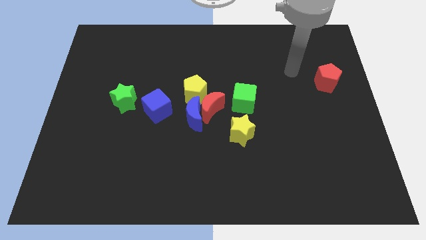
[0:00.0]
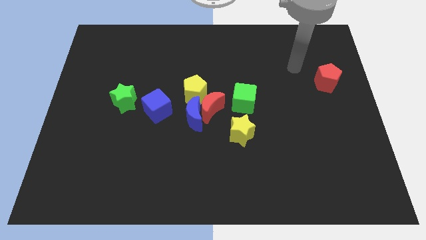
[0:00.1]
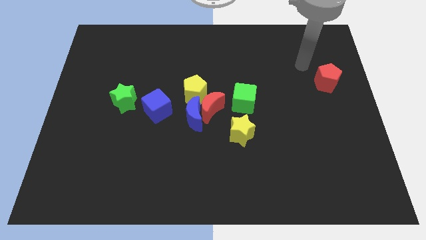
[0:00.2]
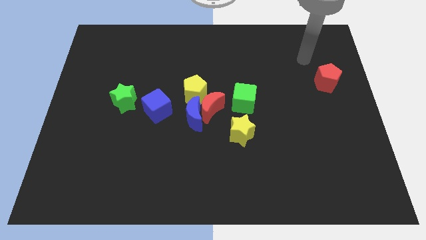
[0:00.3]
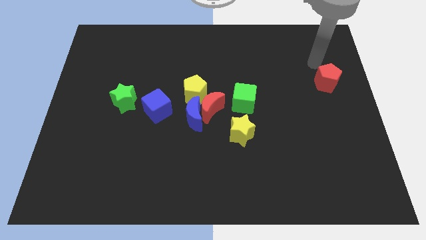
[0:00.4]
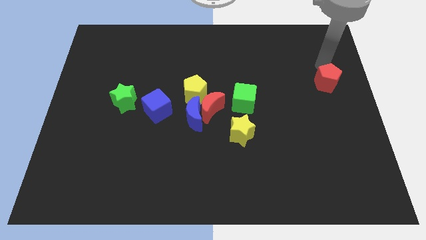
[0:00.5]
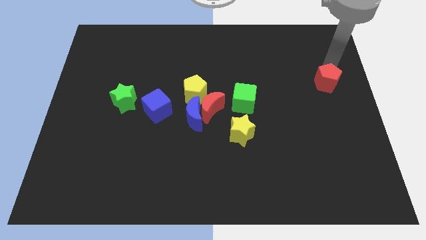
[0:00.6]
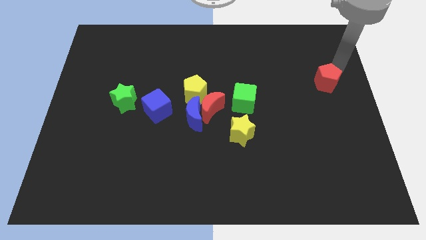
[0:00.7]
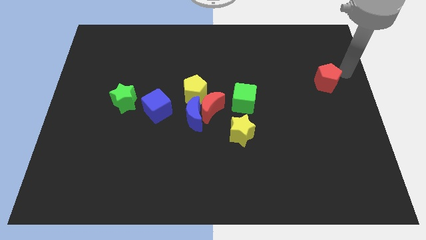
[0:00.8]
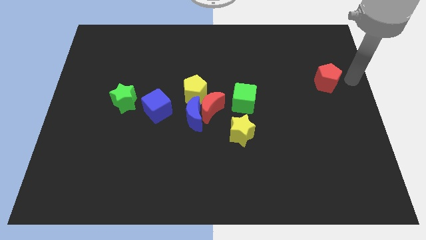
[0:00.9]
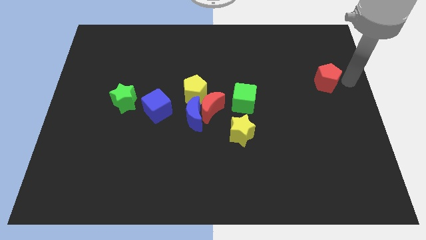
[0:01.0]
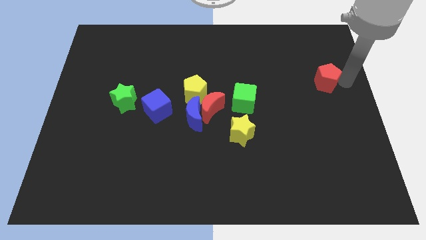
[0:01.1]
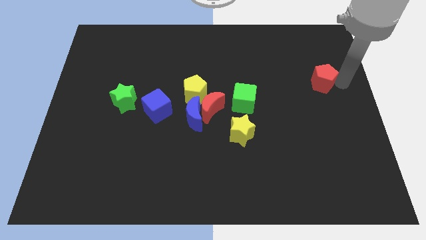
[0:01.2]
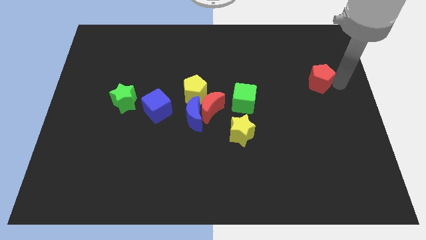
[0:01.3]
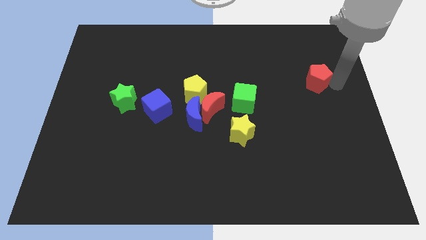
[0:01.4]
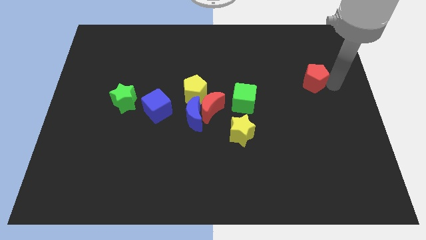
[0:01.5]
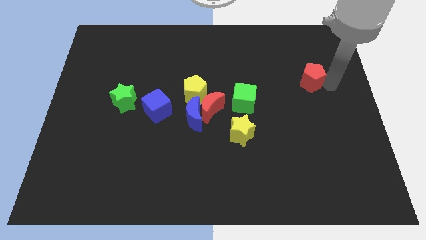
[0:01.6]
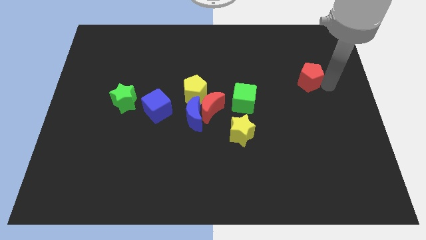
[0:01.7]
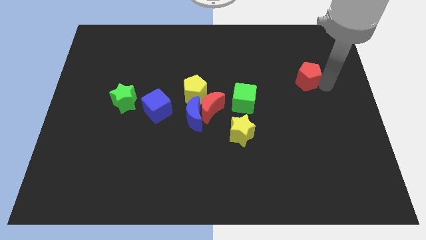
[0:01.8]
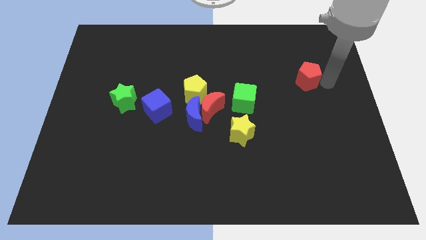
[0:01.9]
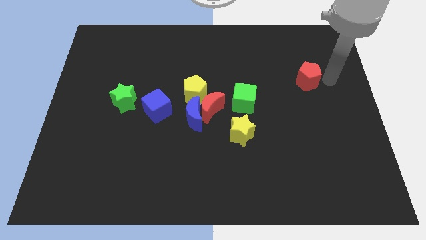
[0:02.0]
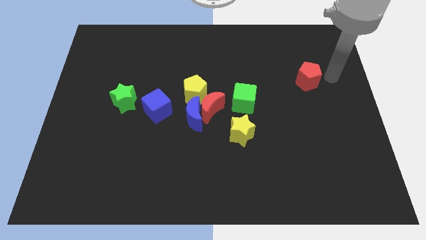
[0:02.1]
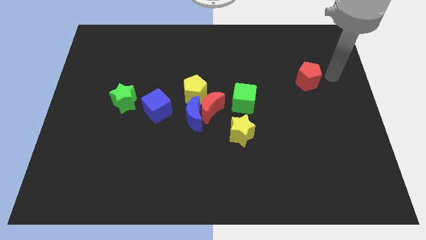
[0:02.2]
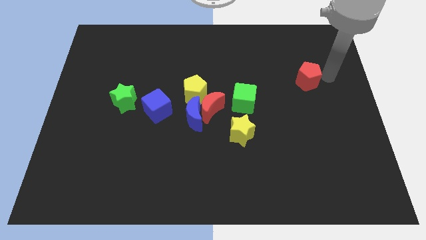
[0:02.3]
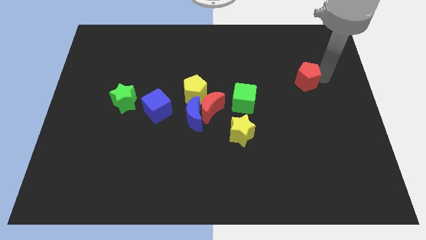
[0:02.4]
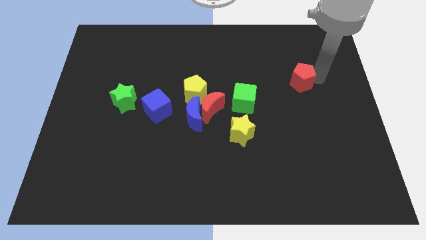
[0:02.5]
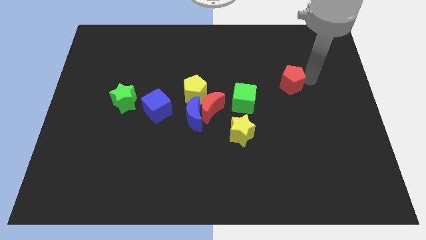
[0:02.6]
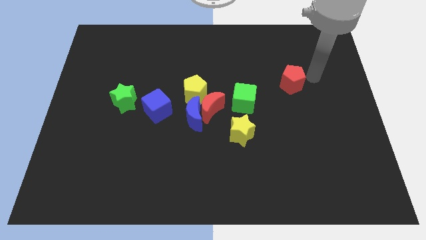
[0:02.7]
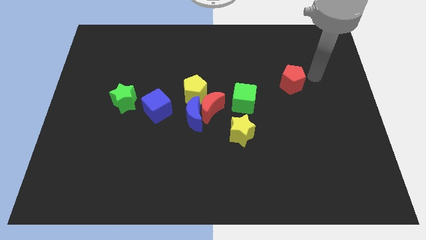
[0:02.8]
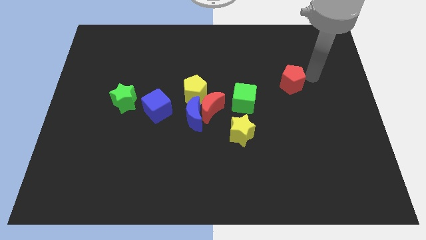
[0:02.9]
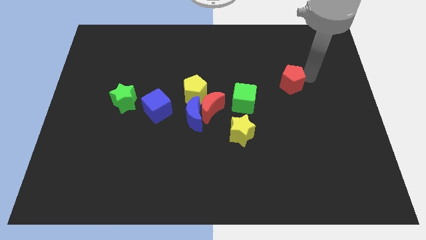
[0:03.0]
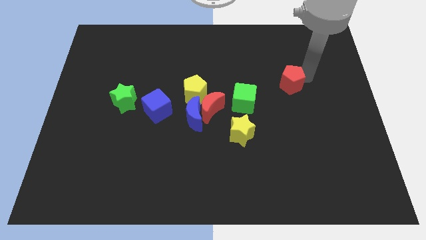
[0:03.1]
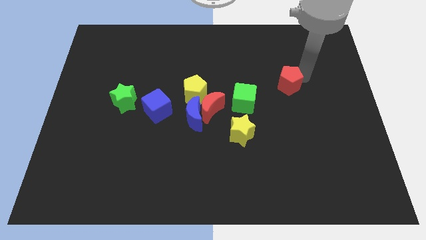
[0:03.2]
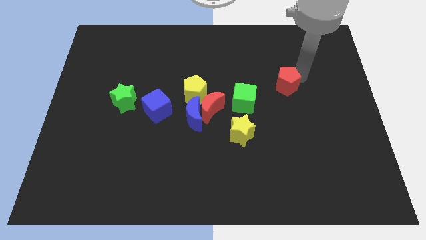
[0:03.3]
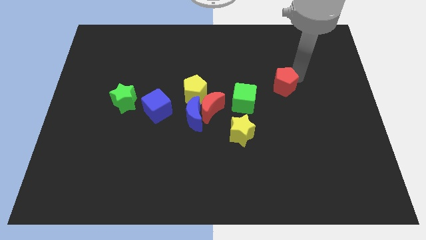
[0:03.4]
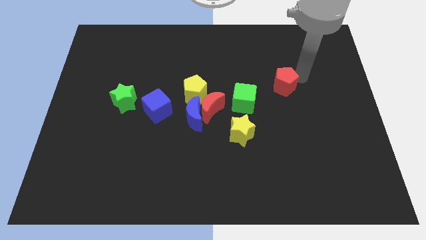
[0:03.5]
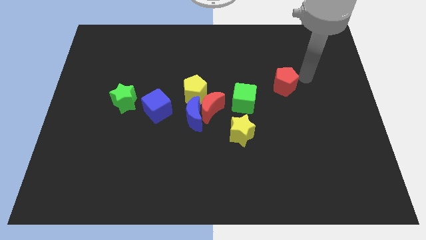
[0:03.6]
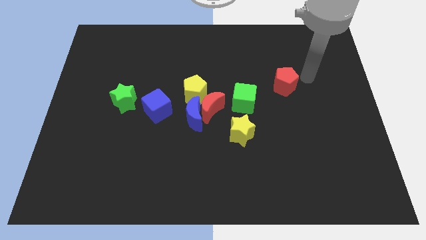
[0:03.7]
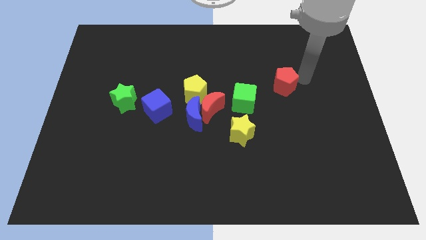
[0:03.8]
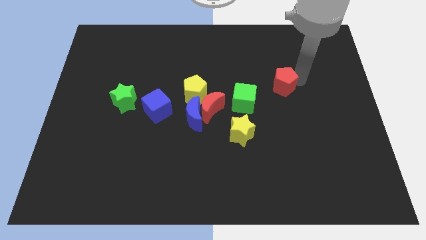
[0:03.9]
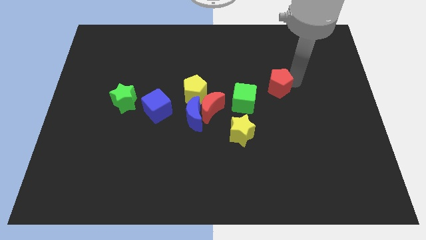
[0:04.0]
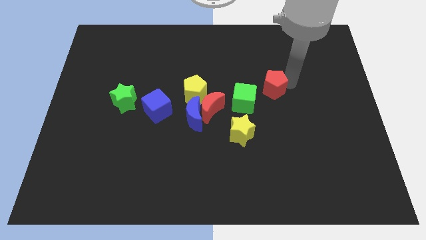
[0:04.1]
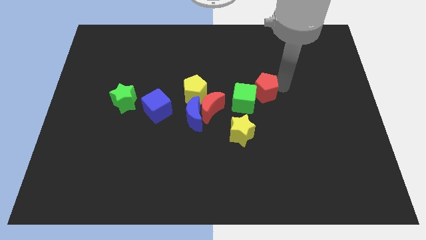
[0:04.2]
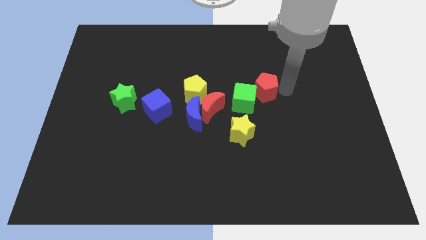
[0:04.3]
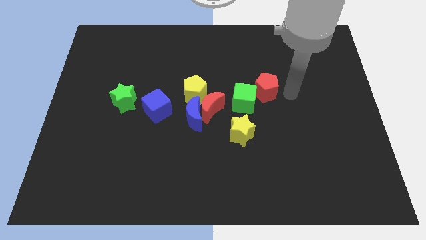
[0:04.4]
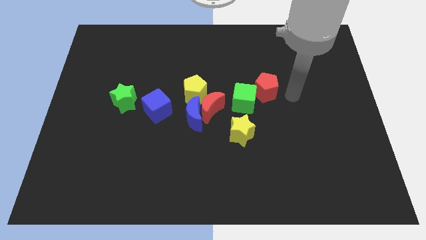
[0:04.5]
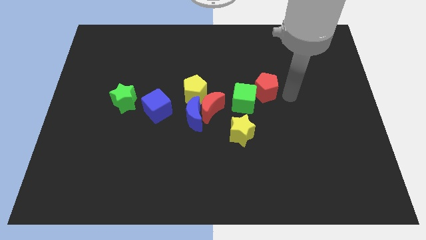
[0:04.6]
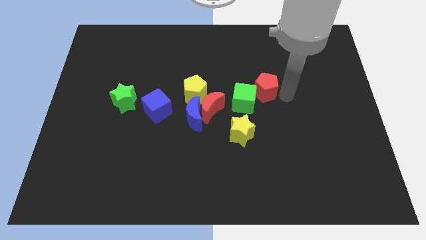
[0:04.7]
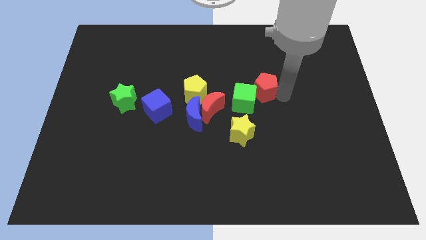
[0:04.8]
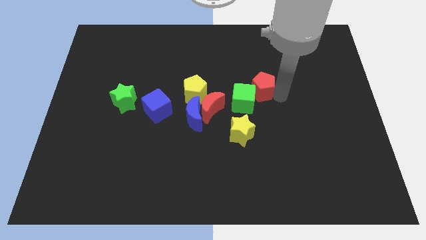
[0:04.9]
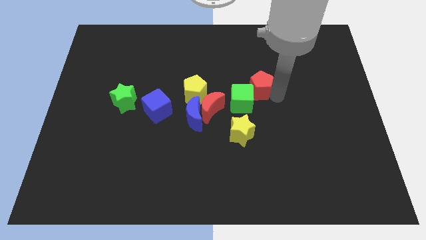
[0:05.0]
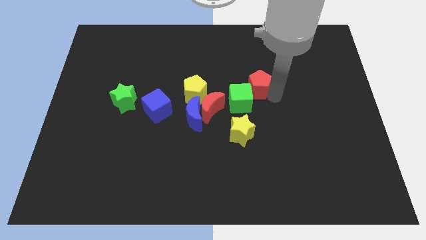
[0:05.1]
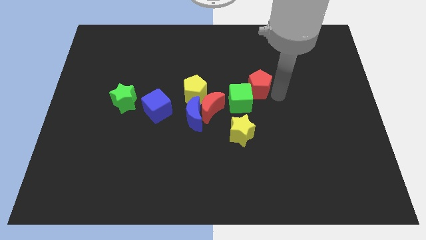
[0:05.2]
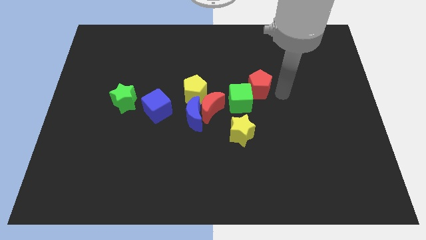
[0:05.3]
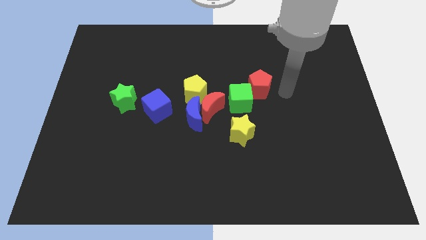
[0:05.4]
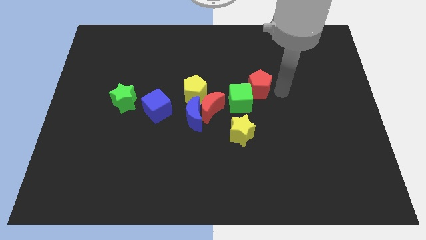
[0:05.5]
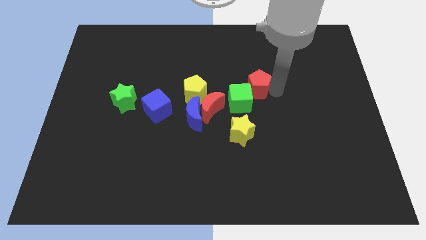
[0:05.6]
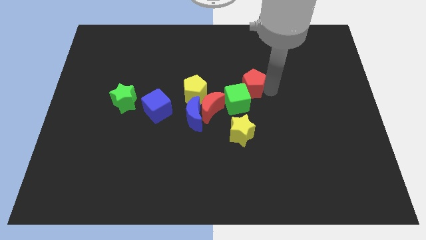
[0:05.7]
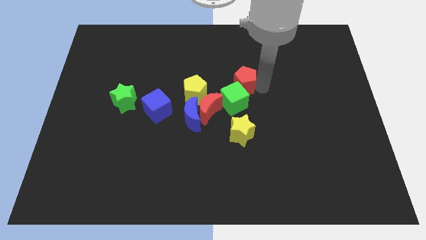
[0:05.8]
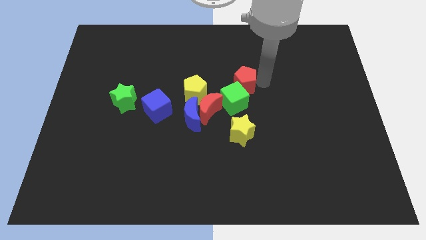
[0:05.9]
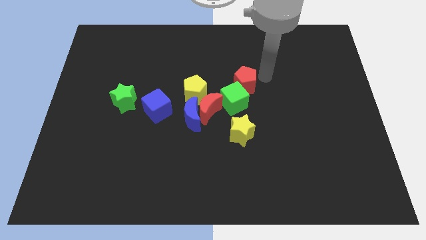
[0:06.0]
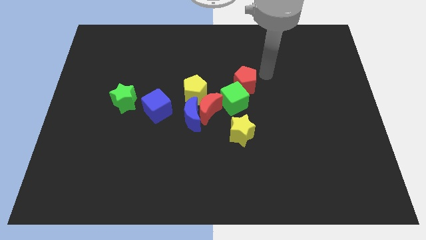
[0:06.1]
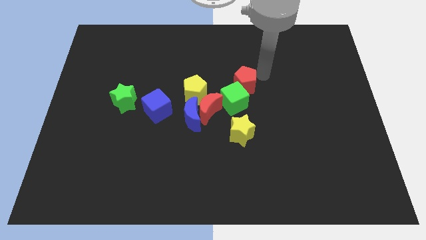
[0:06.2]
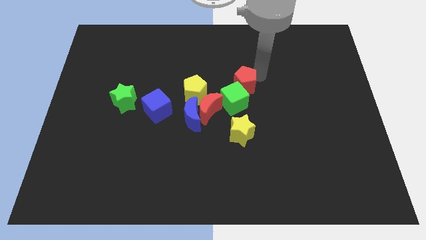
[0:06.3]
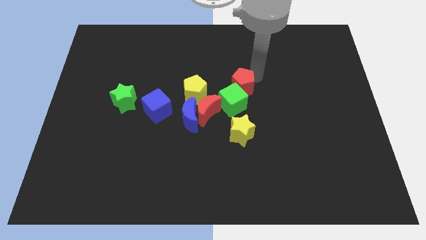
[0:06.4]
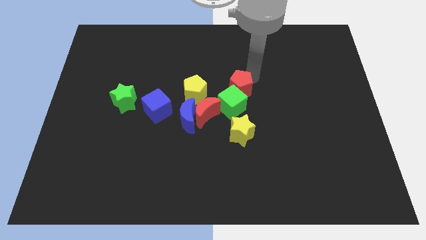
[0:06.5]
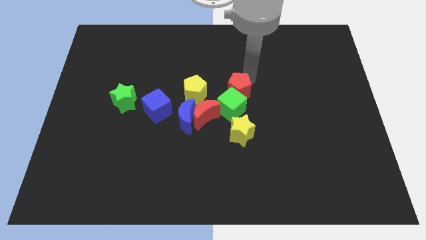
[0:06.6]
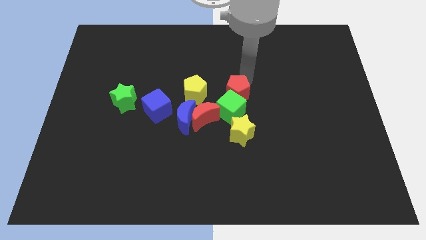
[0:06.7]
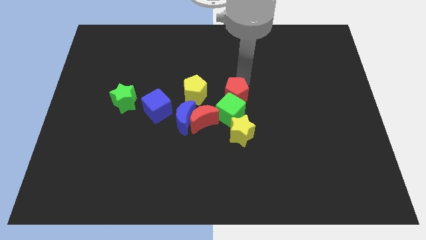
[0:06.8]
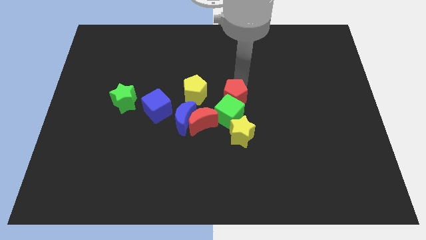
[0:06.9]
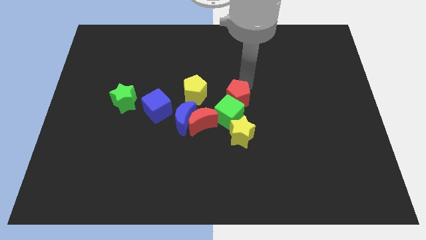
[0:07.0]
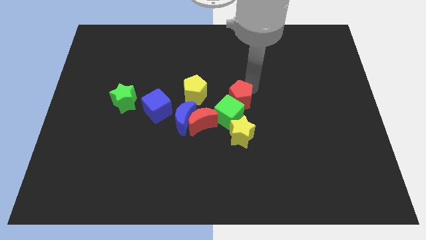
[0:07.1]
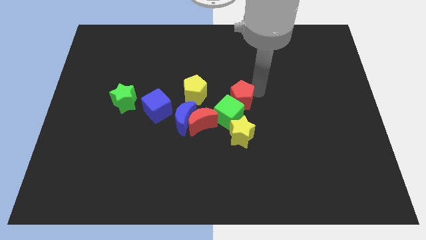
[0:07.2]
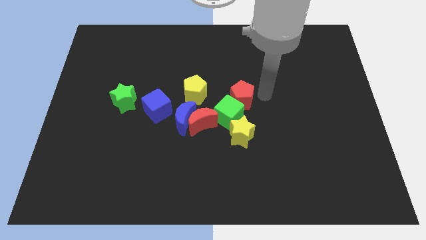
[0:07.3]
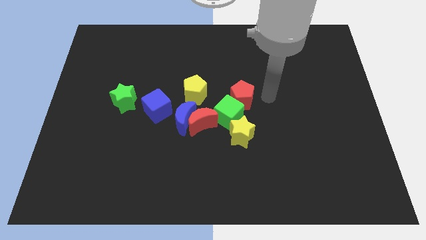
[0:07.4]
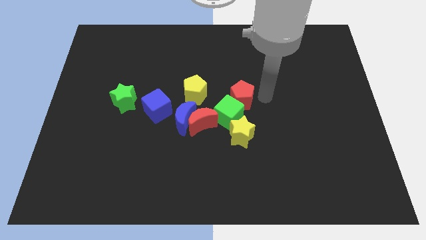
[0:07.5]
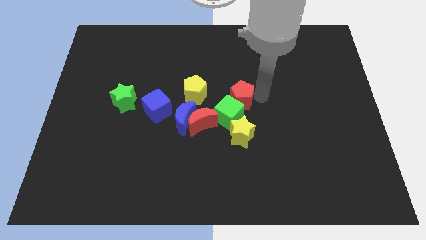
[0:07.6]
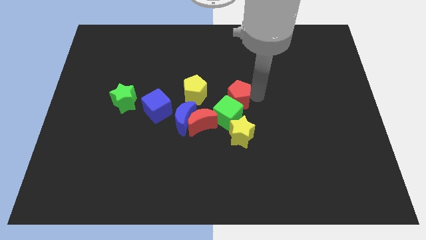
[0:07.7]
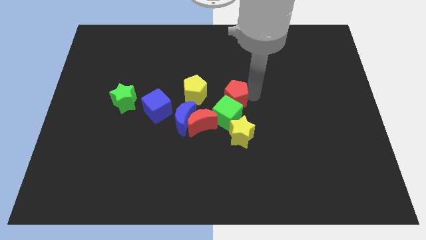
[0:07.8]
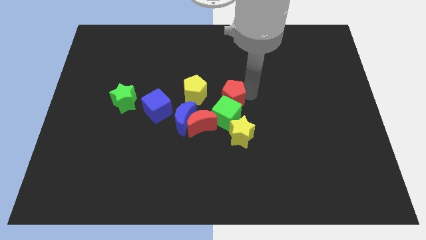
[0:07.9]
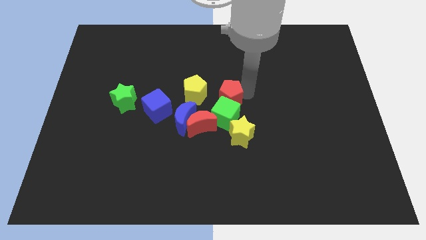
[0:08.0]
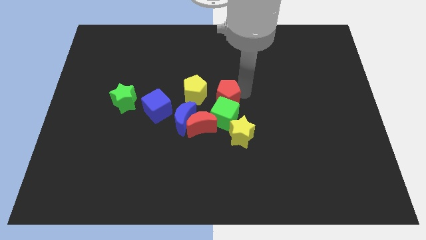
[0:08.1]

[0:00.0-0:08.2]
put the red pentagon diagonally up and to the right of the blue moon
